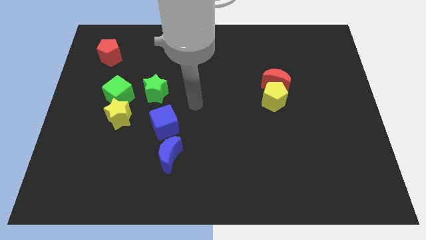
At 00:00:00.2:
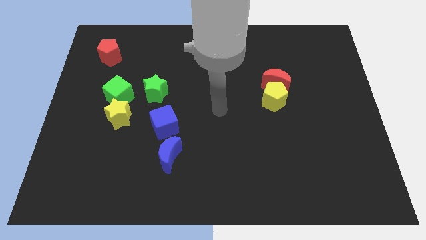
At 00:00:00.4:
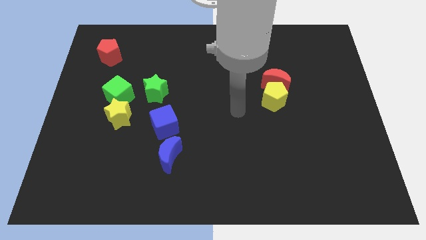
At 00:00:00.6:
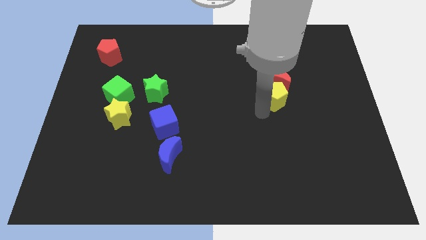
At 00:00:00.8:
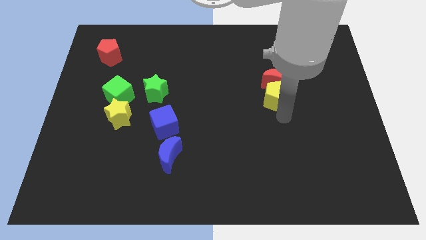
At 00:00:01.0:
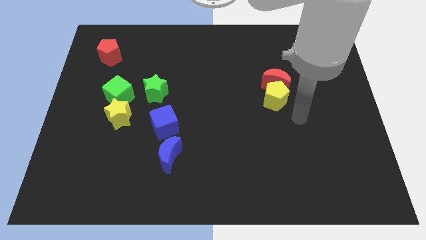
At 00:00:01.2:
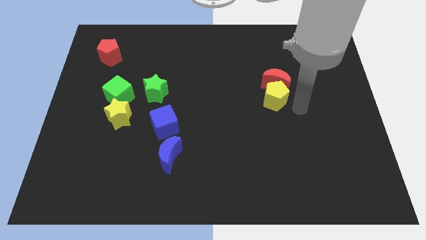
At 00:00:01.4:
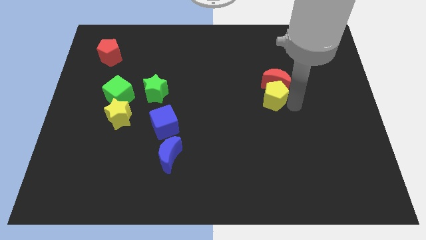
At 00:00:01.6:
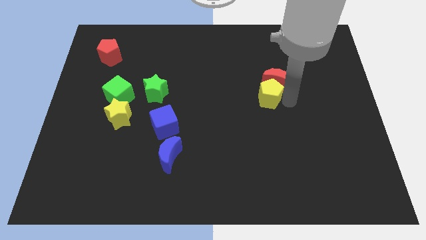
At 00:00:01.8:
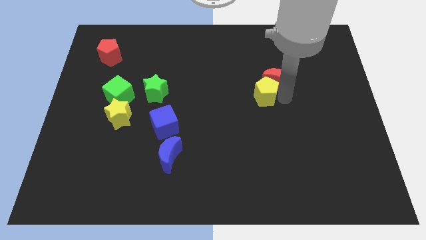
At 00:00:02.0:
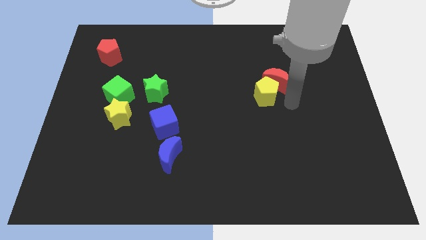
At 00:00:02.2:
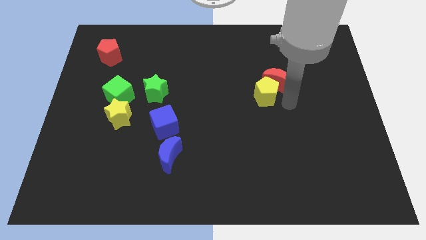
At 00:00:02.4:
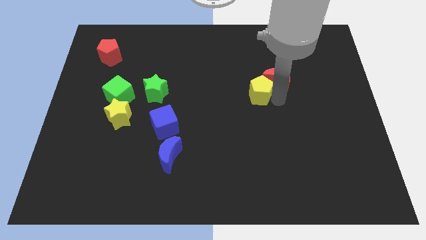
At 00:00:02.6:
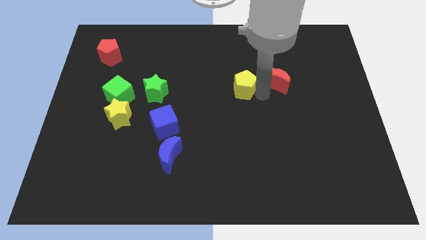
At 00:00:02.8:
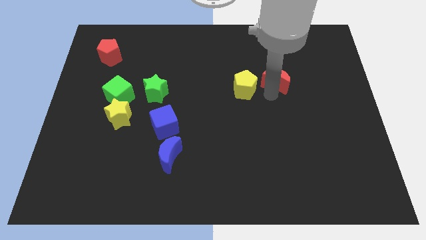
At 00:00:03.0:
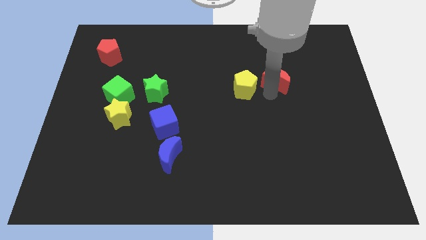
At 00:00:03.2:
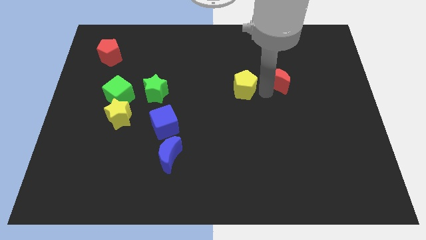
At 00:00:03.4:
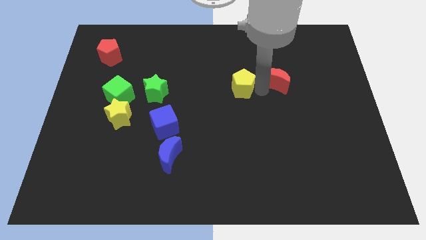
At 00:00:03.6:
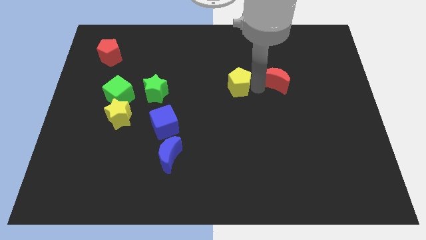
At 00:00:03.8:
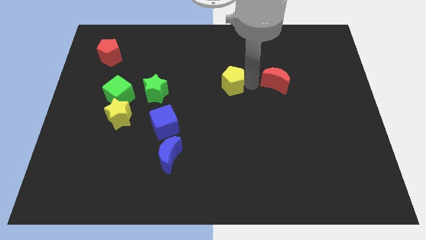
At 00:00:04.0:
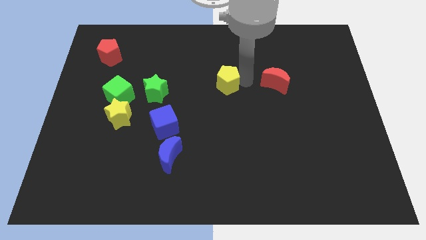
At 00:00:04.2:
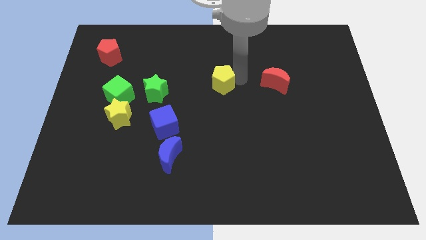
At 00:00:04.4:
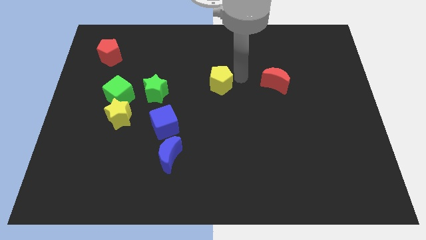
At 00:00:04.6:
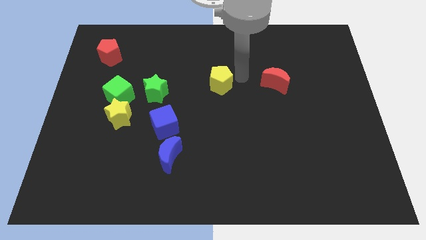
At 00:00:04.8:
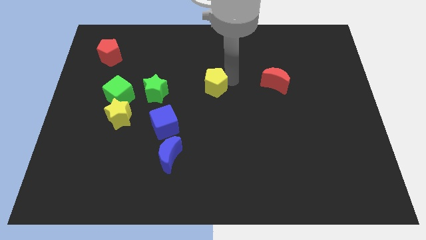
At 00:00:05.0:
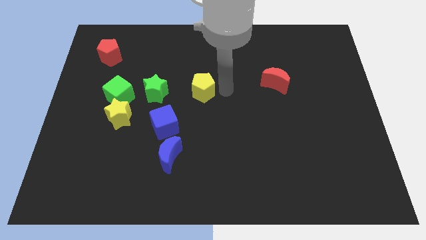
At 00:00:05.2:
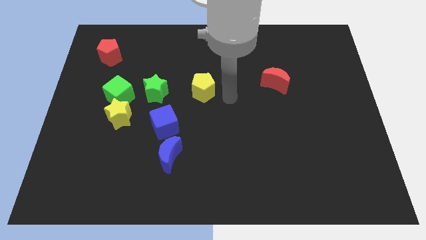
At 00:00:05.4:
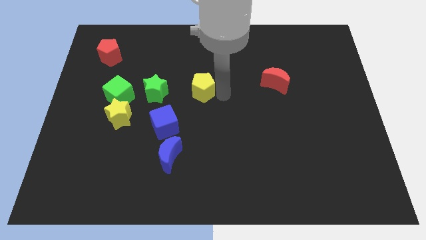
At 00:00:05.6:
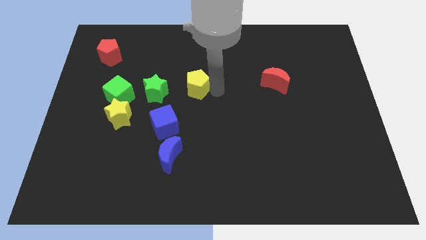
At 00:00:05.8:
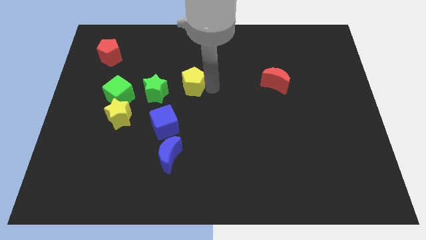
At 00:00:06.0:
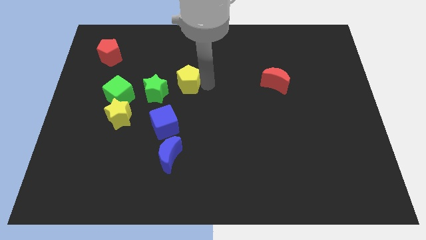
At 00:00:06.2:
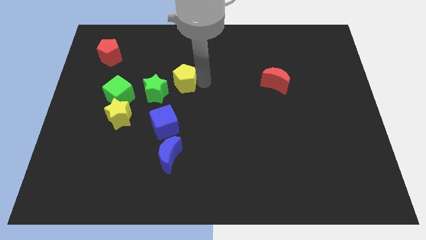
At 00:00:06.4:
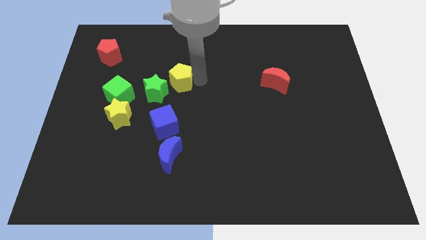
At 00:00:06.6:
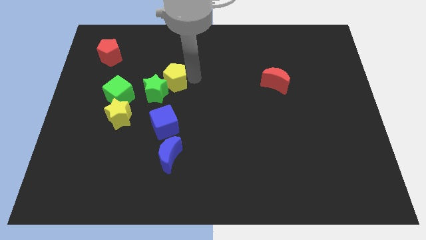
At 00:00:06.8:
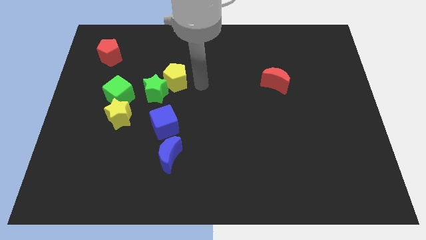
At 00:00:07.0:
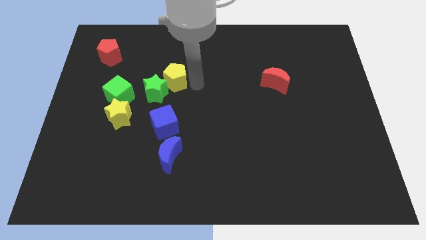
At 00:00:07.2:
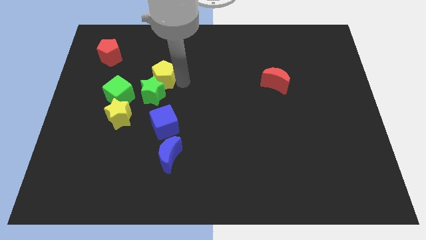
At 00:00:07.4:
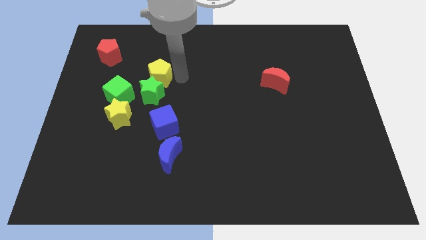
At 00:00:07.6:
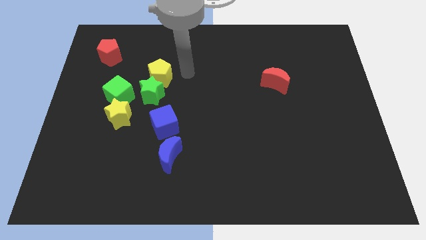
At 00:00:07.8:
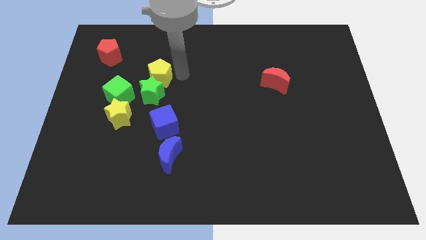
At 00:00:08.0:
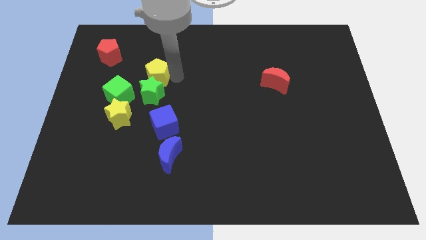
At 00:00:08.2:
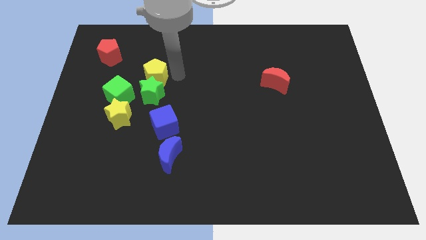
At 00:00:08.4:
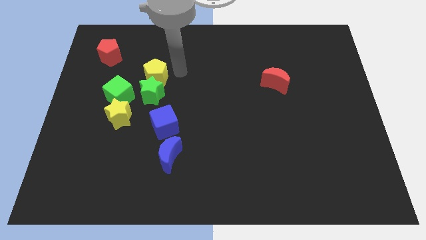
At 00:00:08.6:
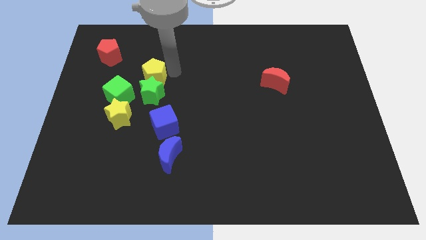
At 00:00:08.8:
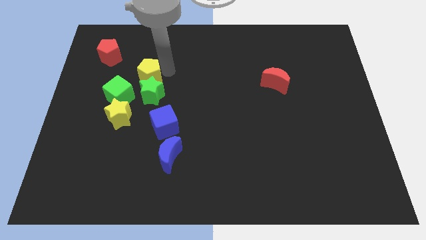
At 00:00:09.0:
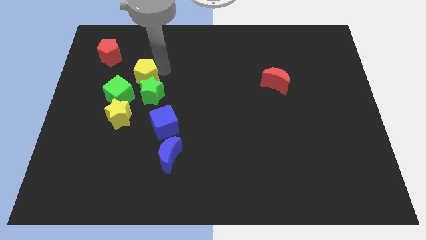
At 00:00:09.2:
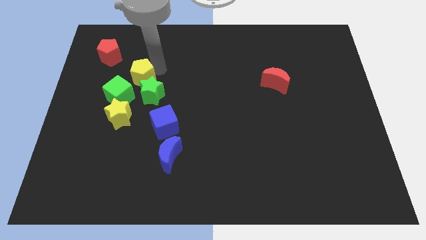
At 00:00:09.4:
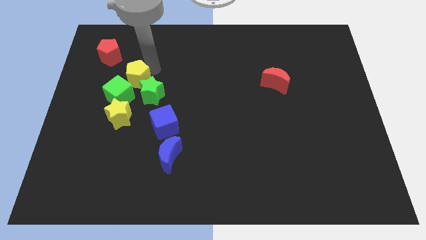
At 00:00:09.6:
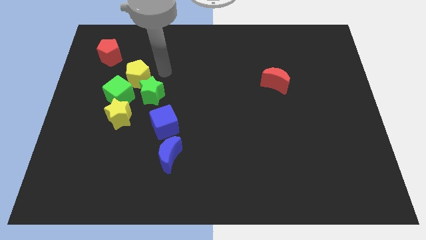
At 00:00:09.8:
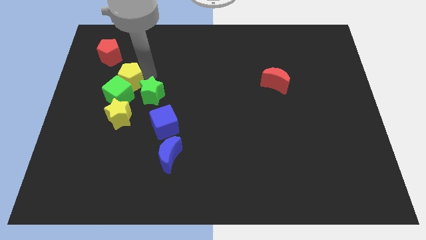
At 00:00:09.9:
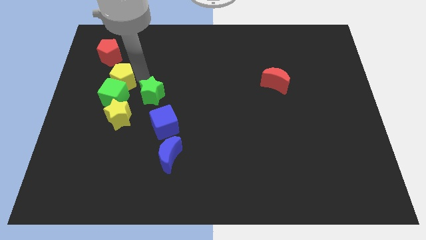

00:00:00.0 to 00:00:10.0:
slide the yellow pentagon to the bottom of the red pentagon

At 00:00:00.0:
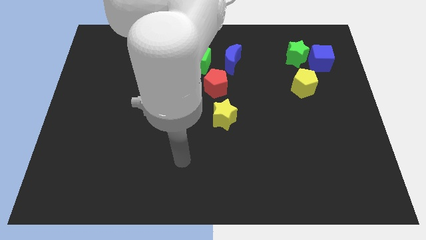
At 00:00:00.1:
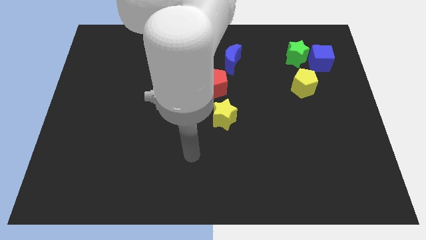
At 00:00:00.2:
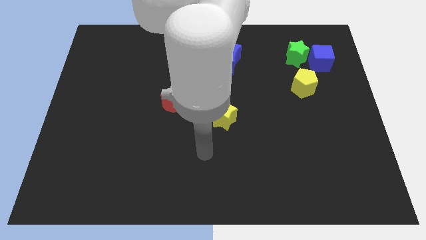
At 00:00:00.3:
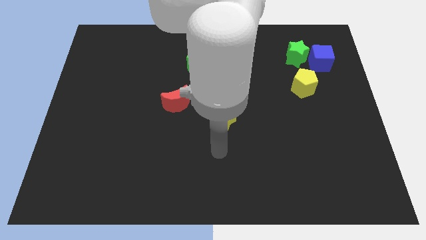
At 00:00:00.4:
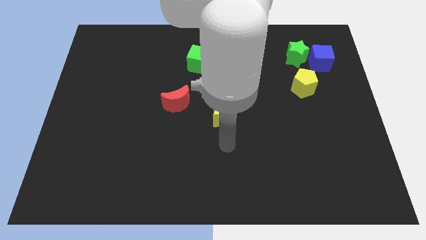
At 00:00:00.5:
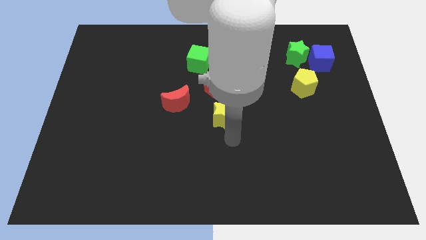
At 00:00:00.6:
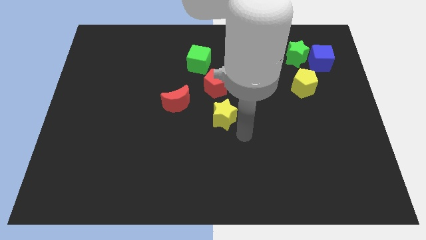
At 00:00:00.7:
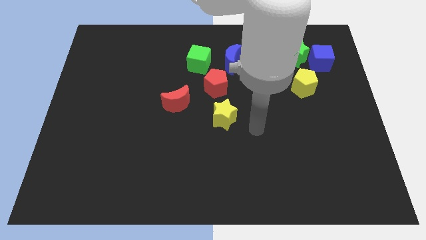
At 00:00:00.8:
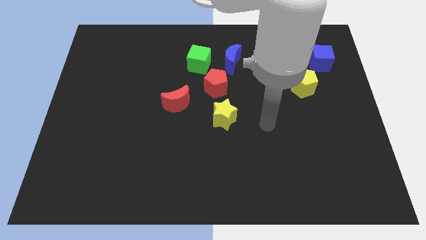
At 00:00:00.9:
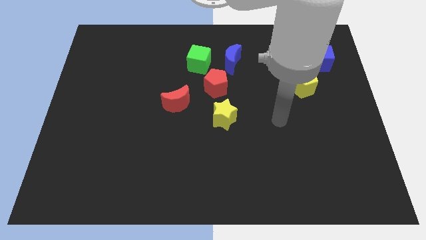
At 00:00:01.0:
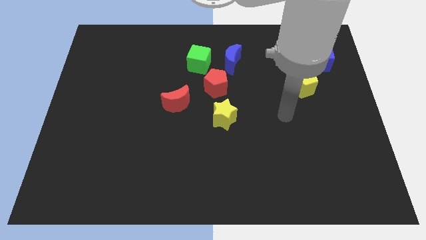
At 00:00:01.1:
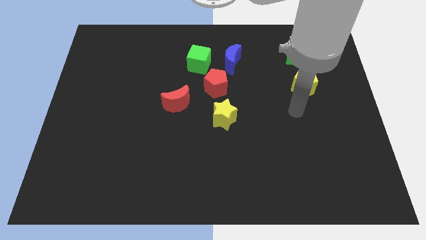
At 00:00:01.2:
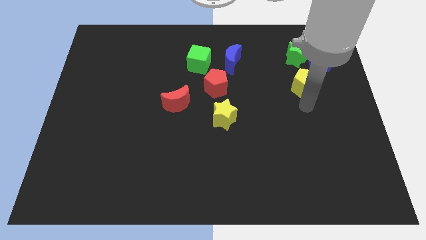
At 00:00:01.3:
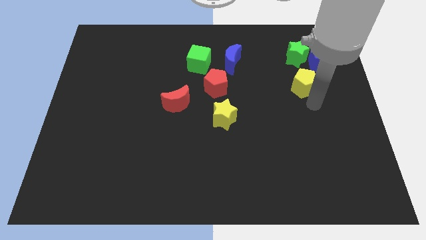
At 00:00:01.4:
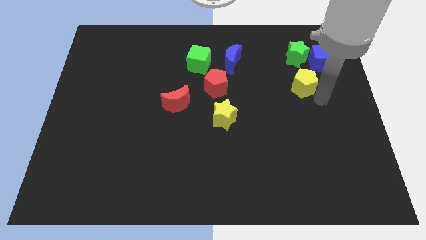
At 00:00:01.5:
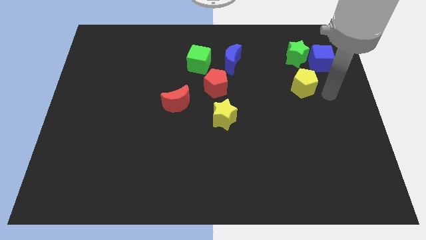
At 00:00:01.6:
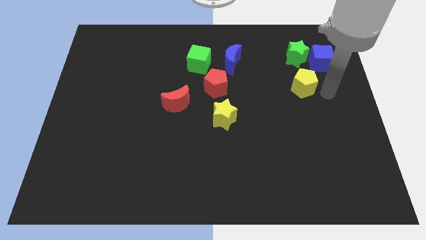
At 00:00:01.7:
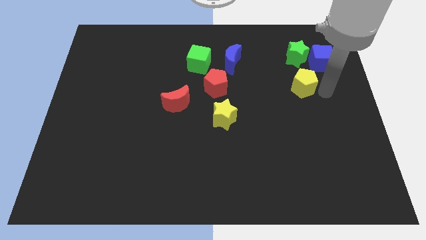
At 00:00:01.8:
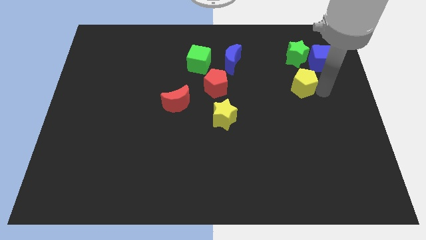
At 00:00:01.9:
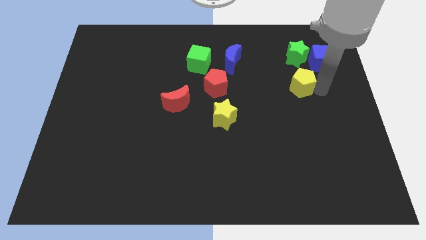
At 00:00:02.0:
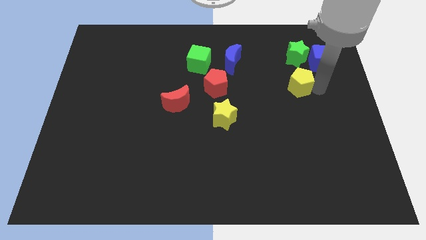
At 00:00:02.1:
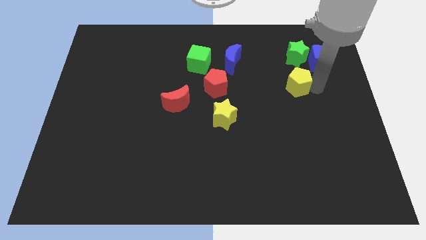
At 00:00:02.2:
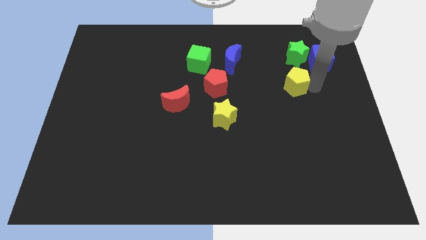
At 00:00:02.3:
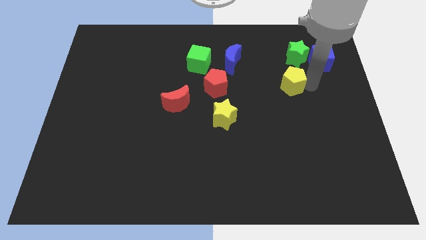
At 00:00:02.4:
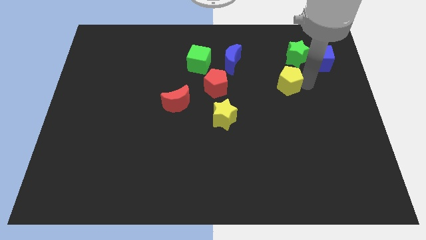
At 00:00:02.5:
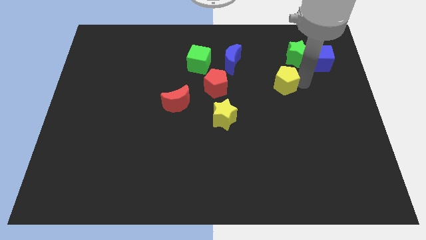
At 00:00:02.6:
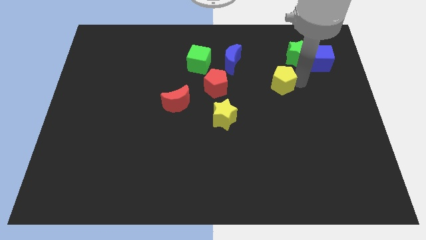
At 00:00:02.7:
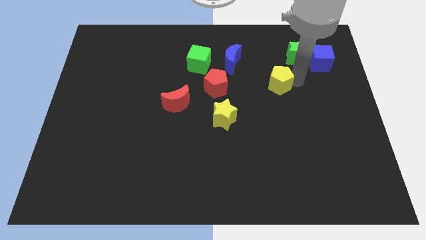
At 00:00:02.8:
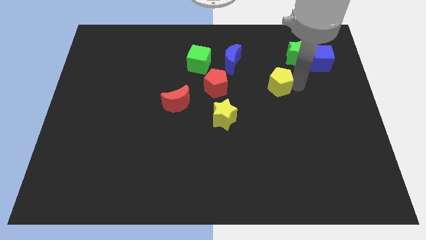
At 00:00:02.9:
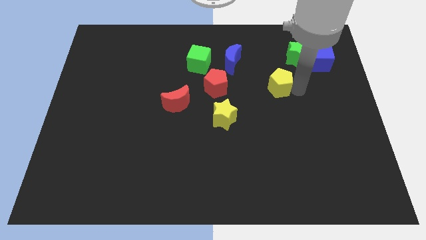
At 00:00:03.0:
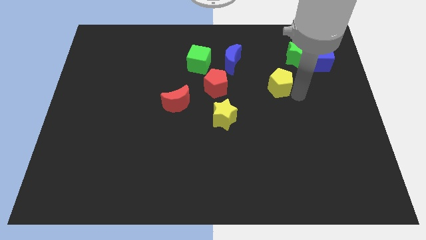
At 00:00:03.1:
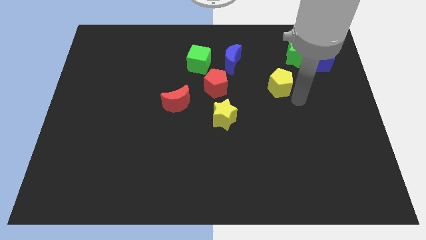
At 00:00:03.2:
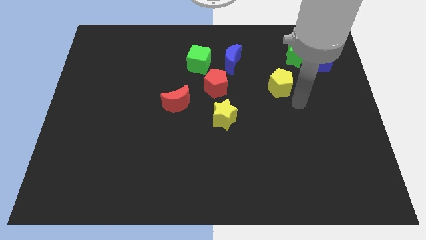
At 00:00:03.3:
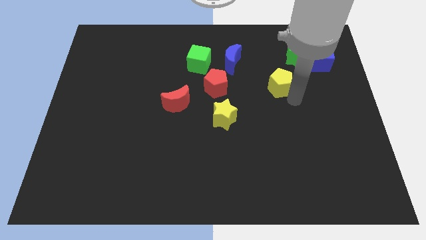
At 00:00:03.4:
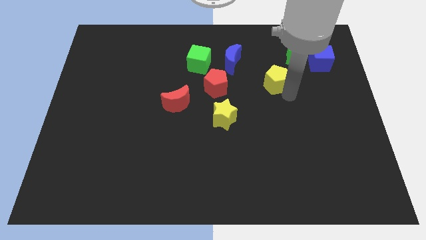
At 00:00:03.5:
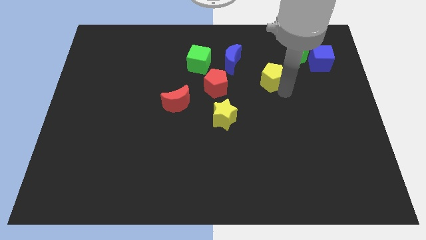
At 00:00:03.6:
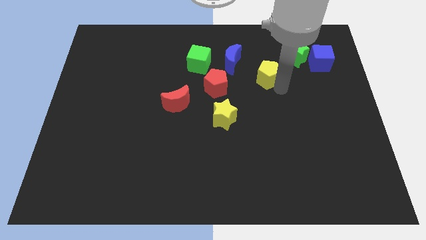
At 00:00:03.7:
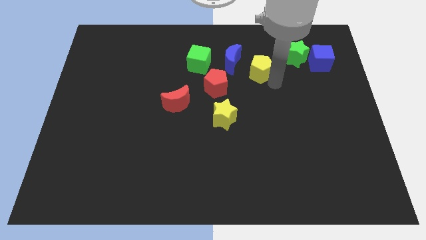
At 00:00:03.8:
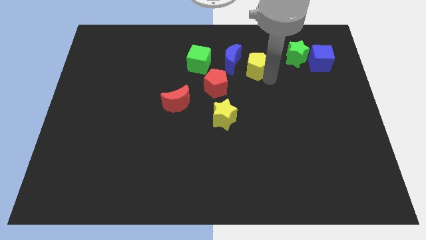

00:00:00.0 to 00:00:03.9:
move the yellow pentagon right of the green cube
